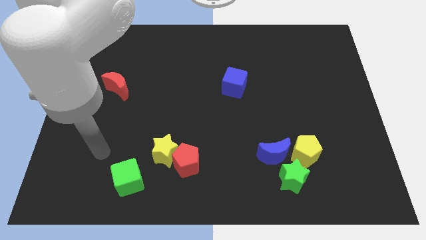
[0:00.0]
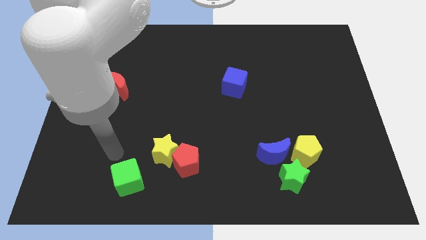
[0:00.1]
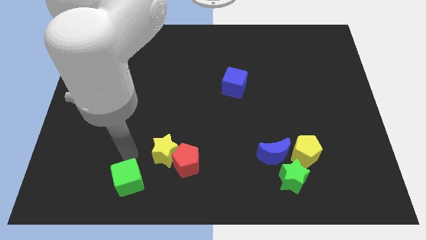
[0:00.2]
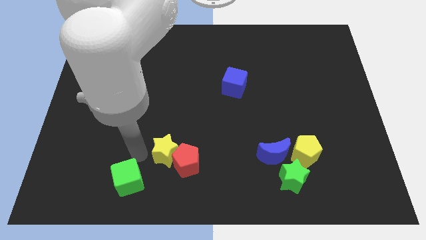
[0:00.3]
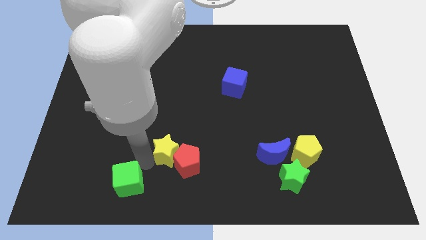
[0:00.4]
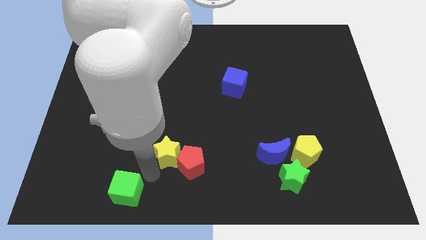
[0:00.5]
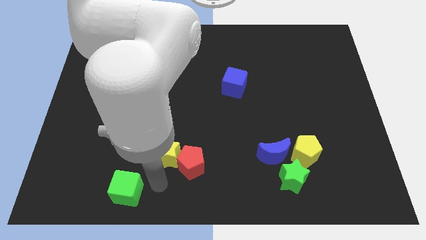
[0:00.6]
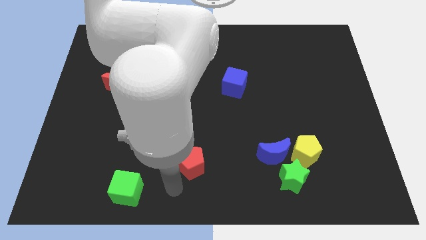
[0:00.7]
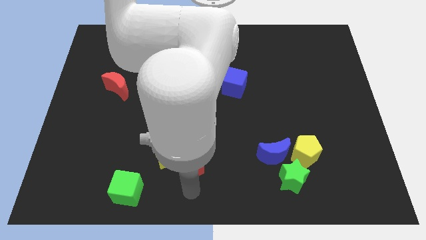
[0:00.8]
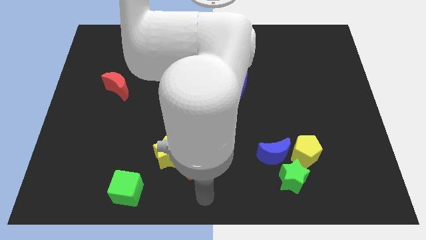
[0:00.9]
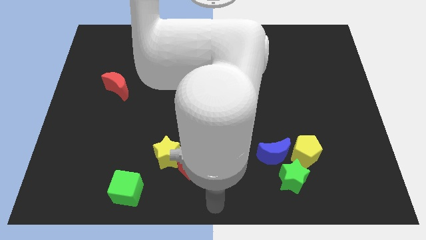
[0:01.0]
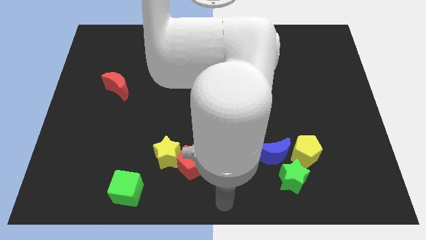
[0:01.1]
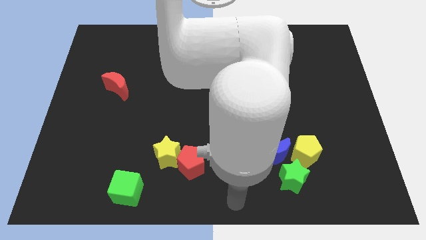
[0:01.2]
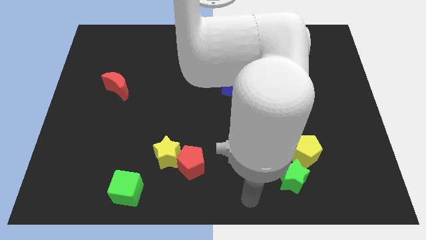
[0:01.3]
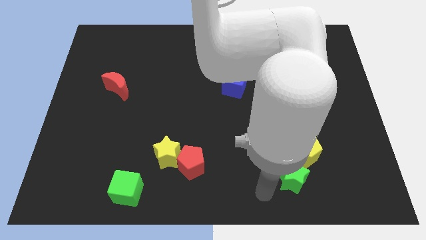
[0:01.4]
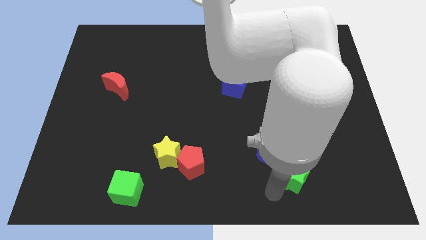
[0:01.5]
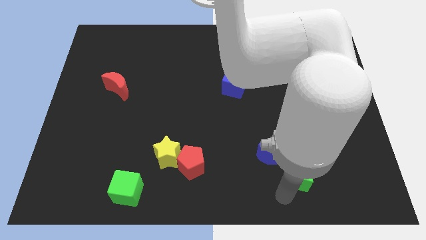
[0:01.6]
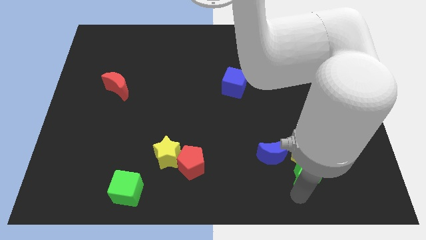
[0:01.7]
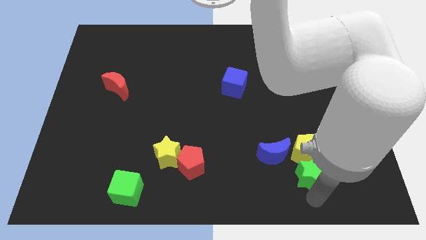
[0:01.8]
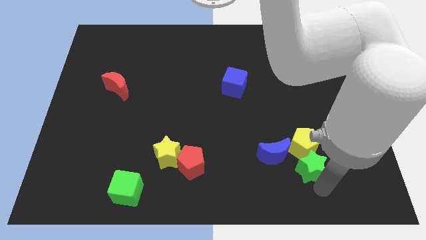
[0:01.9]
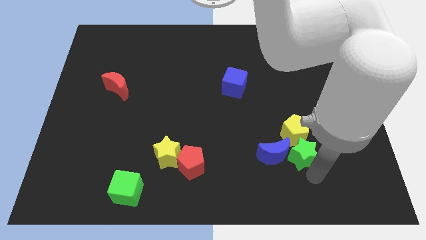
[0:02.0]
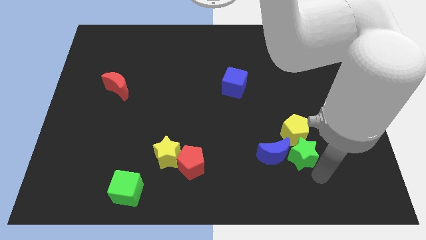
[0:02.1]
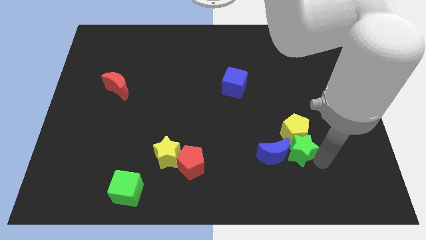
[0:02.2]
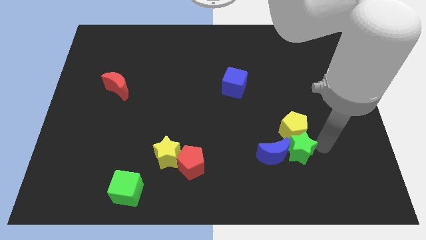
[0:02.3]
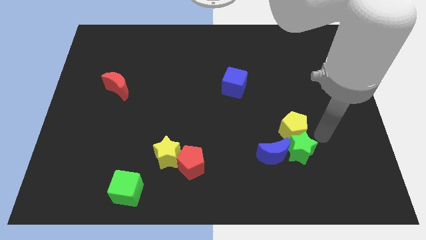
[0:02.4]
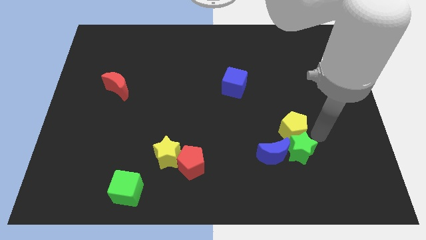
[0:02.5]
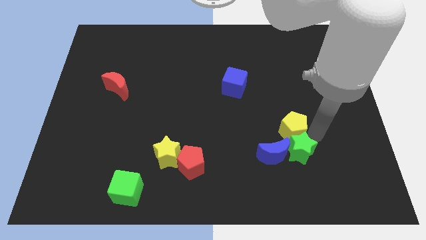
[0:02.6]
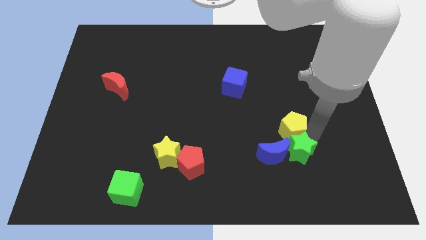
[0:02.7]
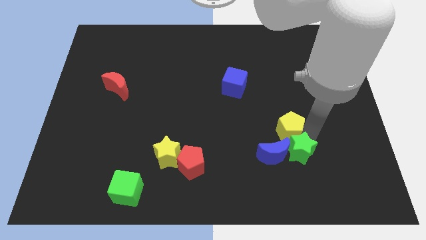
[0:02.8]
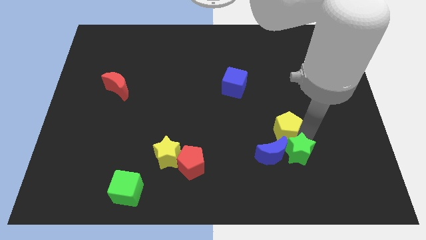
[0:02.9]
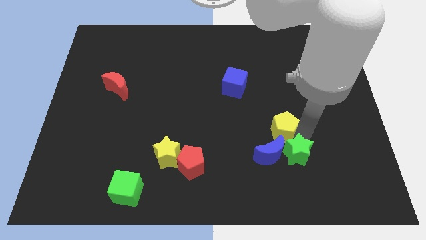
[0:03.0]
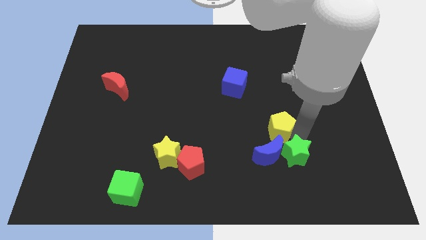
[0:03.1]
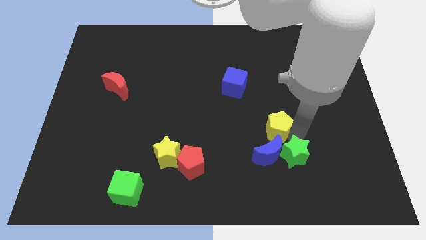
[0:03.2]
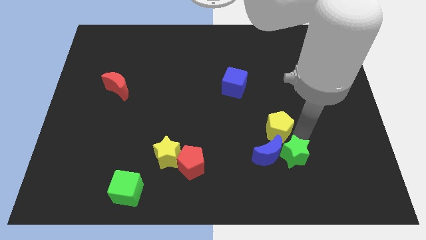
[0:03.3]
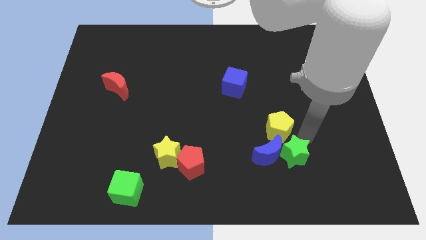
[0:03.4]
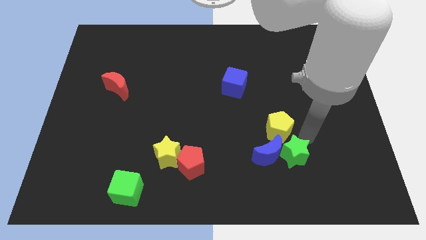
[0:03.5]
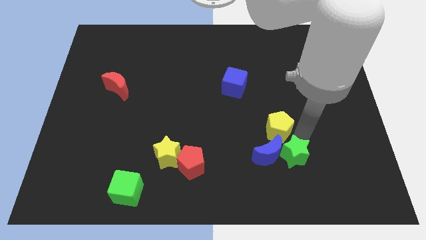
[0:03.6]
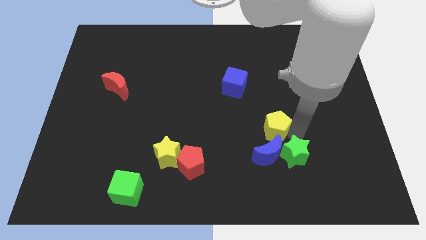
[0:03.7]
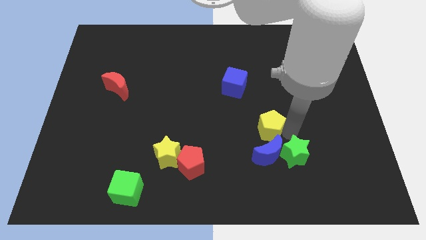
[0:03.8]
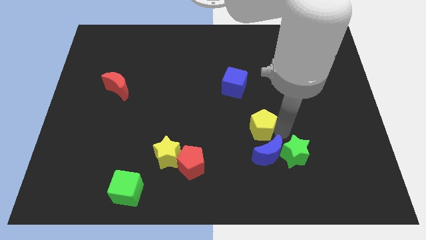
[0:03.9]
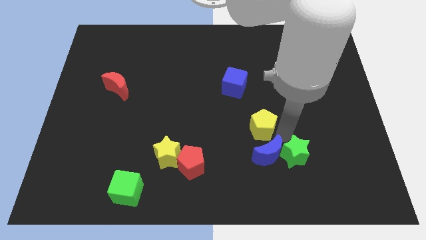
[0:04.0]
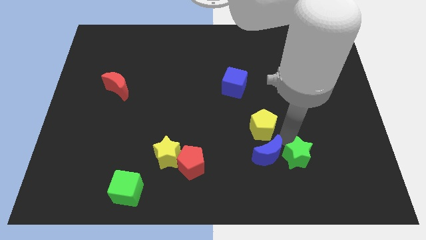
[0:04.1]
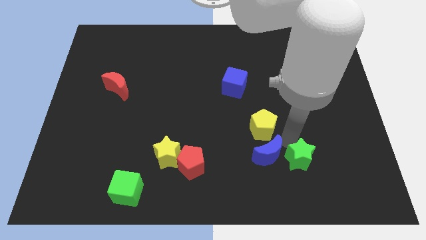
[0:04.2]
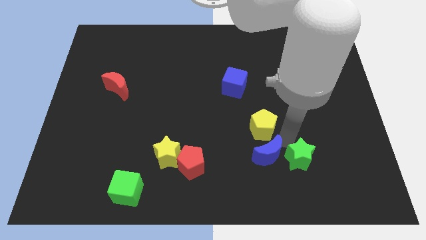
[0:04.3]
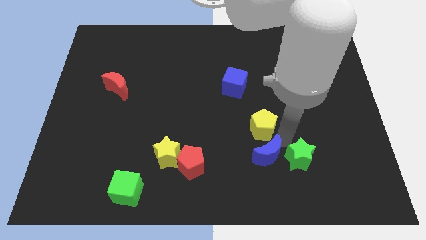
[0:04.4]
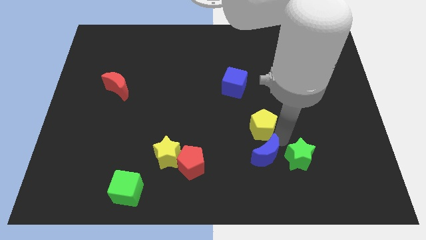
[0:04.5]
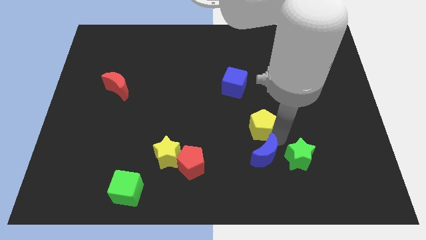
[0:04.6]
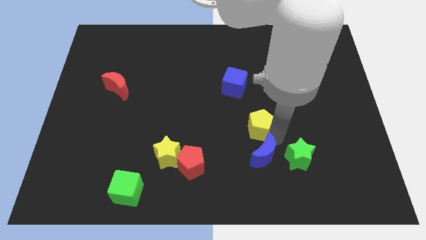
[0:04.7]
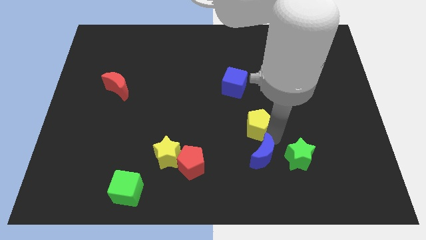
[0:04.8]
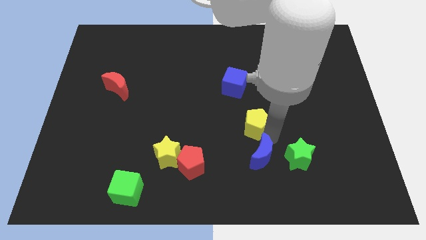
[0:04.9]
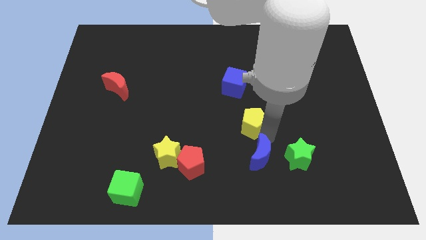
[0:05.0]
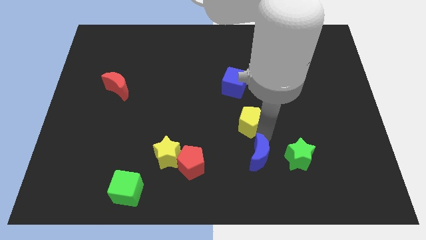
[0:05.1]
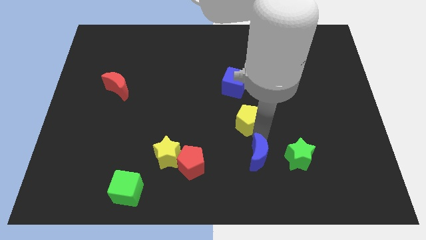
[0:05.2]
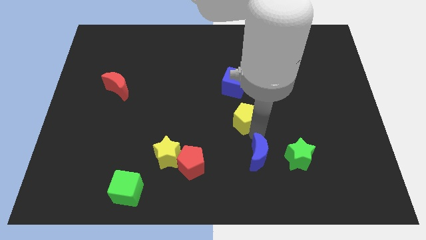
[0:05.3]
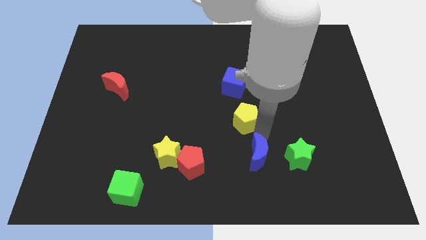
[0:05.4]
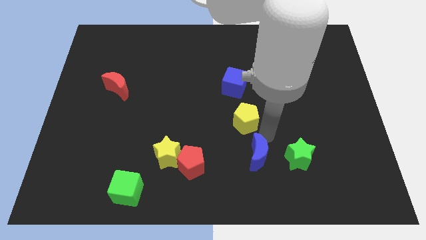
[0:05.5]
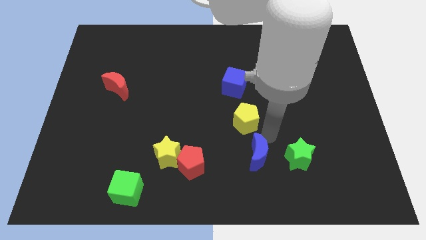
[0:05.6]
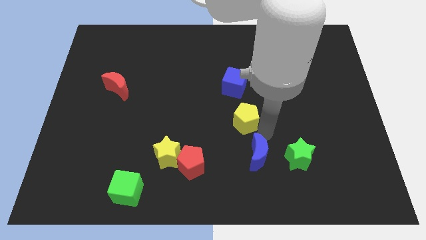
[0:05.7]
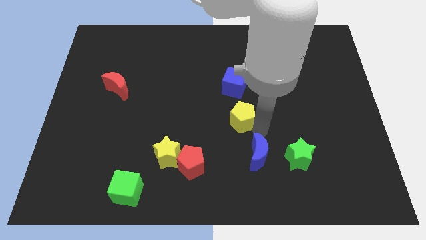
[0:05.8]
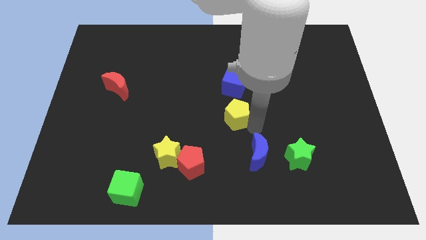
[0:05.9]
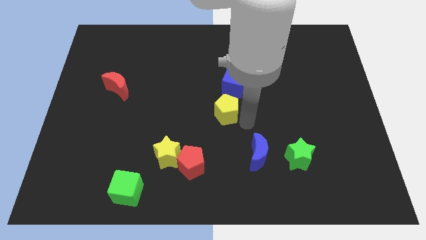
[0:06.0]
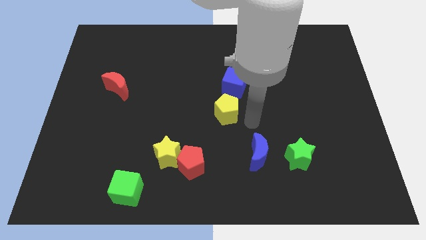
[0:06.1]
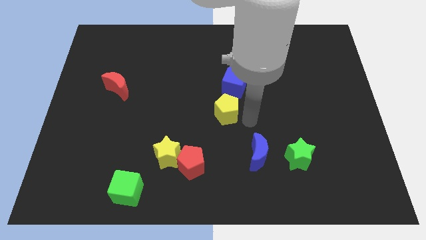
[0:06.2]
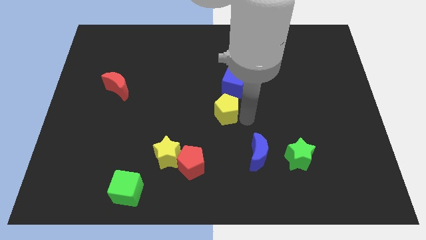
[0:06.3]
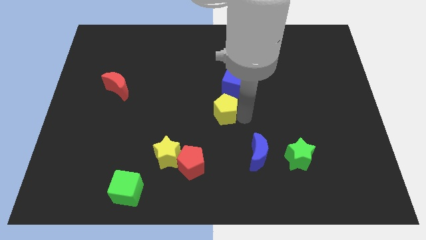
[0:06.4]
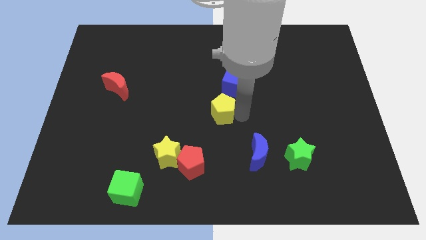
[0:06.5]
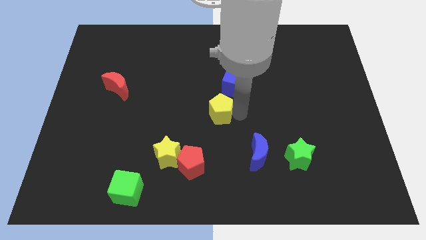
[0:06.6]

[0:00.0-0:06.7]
move the yellow pentagon up and left diagonally

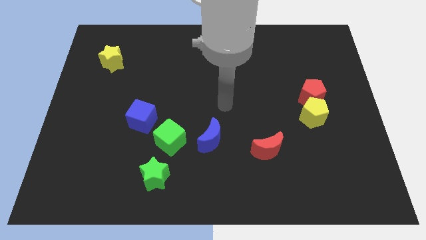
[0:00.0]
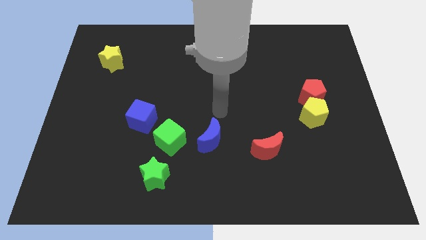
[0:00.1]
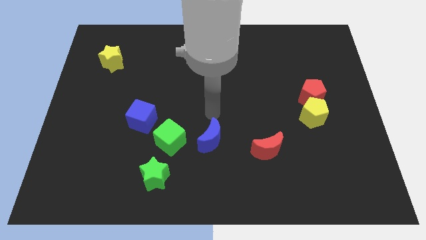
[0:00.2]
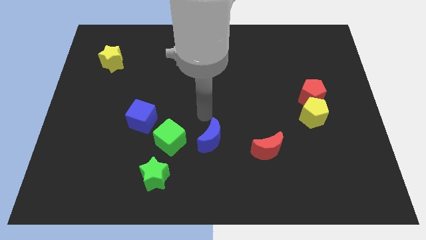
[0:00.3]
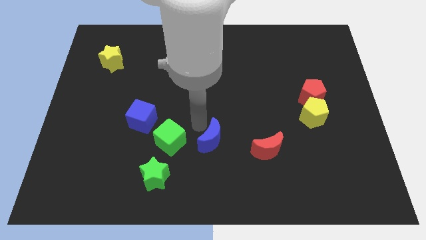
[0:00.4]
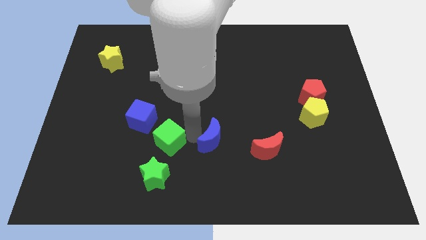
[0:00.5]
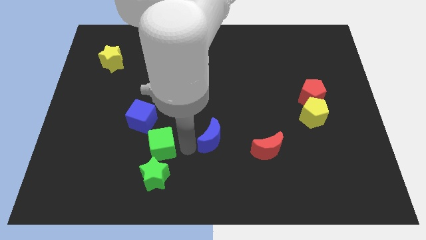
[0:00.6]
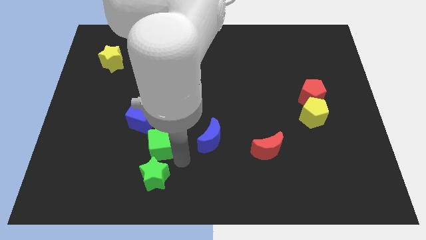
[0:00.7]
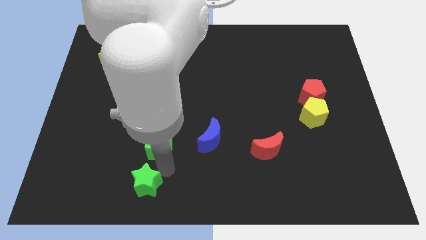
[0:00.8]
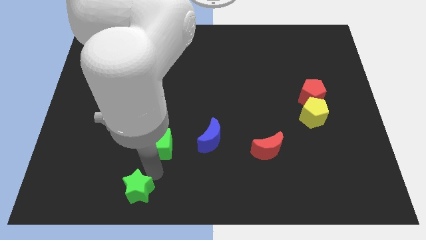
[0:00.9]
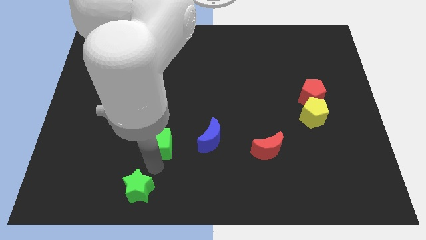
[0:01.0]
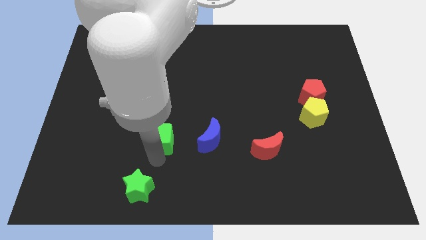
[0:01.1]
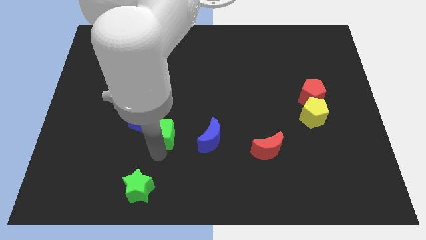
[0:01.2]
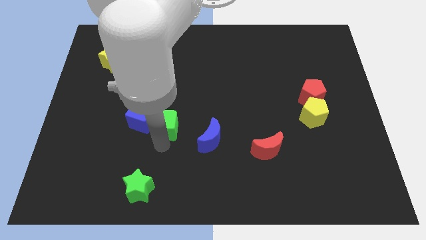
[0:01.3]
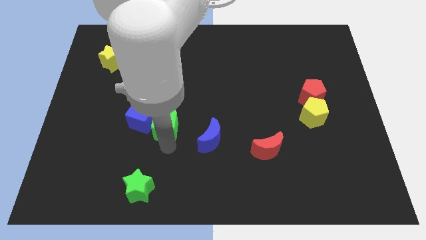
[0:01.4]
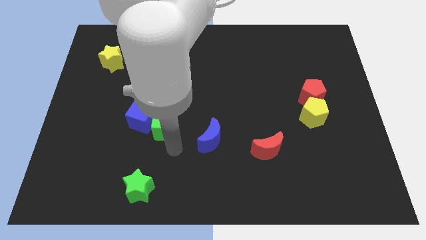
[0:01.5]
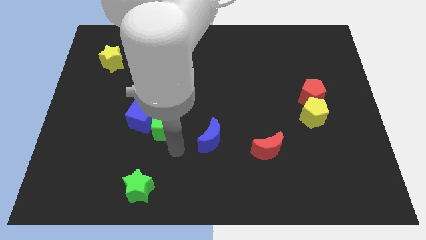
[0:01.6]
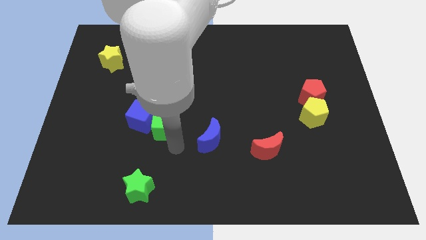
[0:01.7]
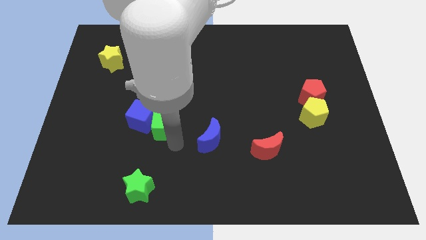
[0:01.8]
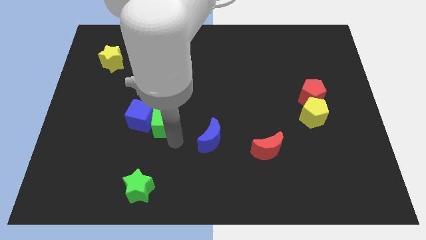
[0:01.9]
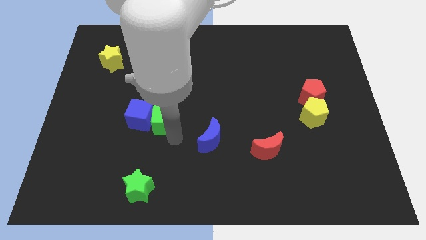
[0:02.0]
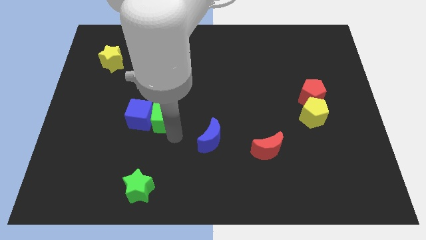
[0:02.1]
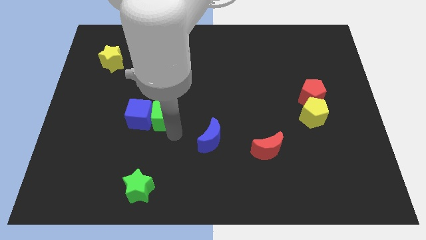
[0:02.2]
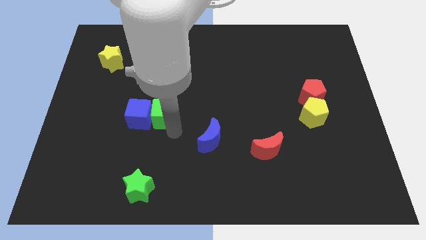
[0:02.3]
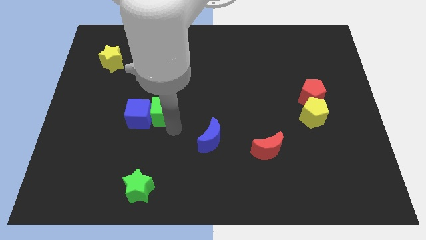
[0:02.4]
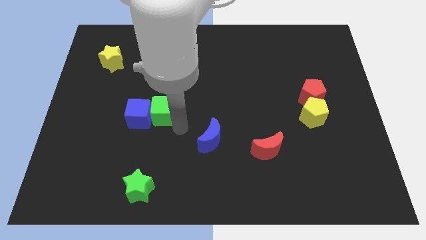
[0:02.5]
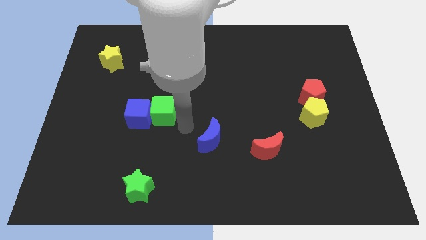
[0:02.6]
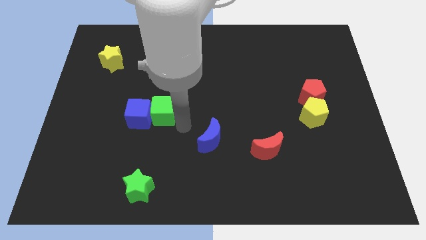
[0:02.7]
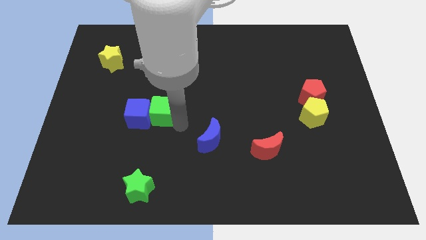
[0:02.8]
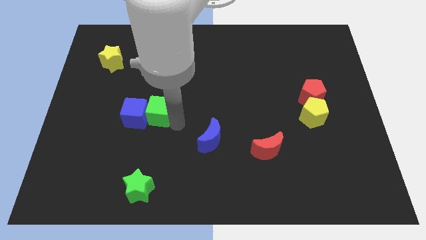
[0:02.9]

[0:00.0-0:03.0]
slide the green cube a little diagonally up and left
